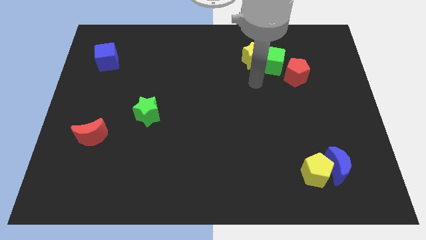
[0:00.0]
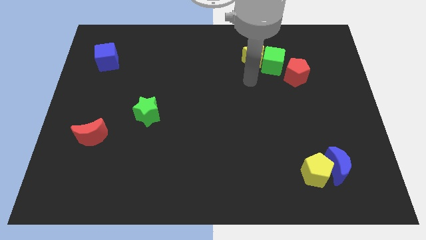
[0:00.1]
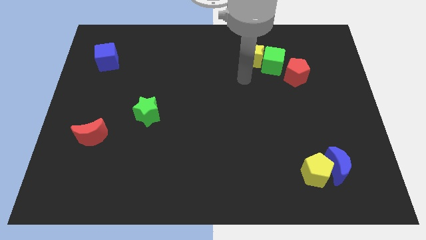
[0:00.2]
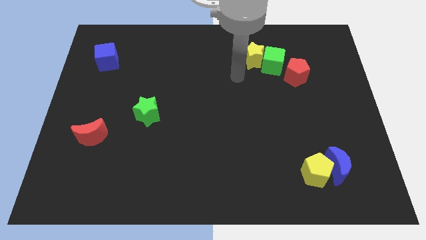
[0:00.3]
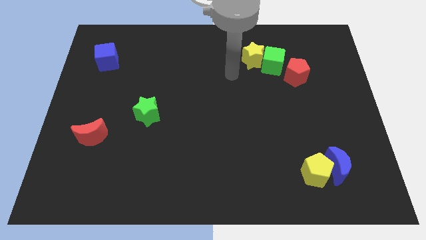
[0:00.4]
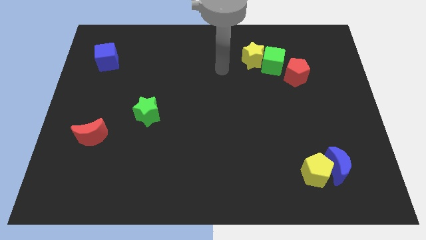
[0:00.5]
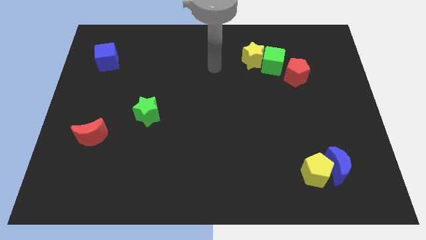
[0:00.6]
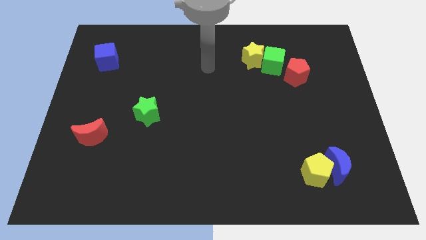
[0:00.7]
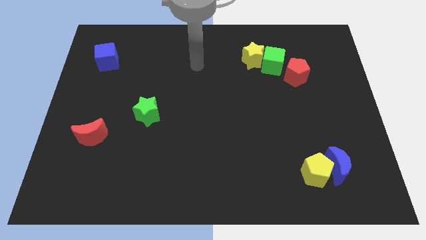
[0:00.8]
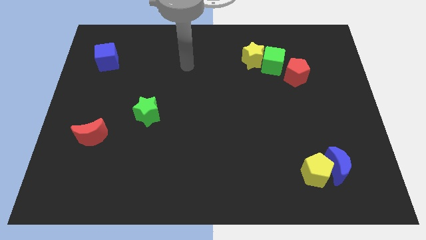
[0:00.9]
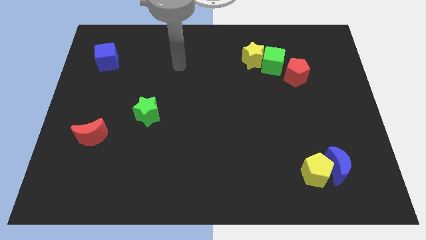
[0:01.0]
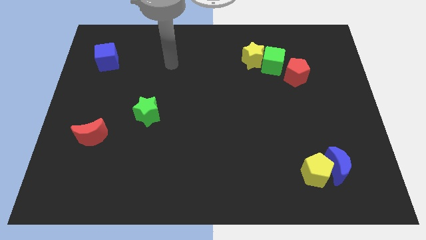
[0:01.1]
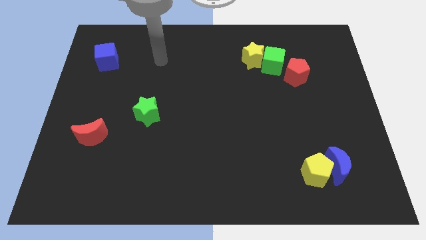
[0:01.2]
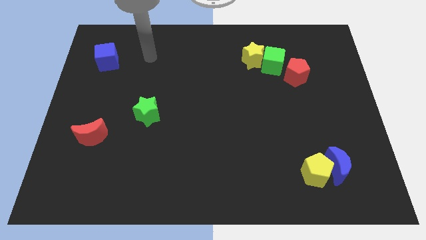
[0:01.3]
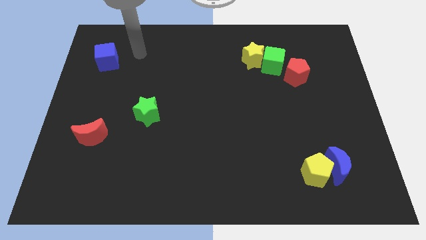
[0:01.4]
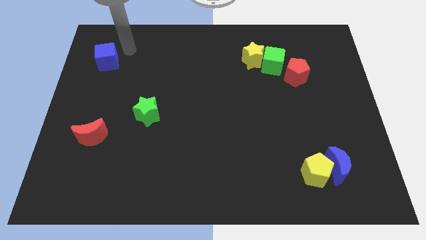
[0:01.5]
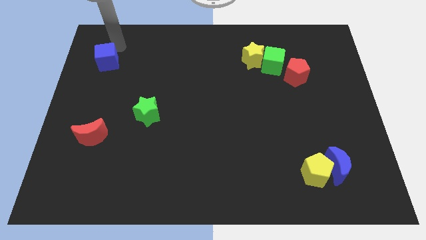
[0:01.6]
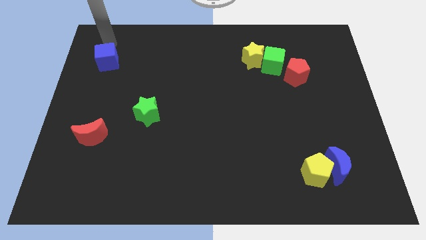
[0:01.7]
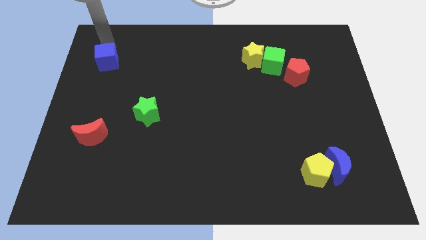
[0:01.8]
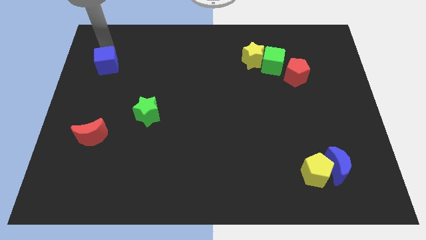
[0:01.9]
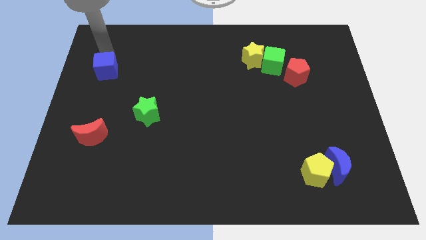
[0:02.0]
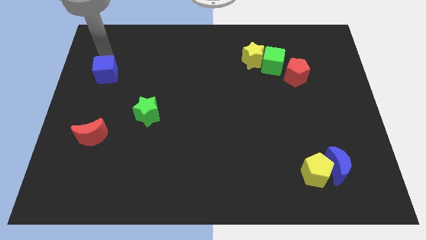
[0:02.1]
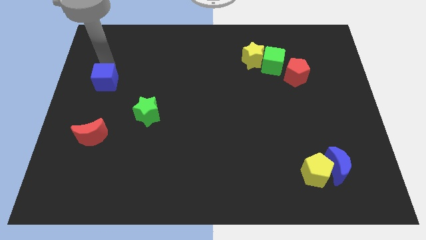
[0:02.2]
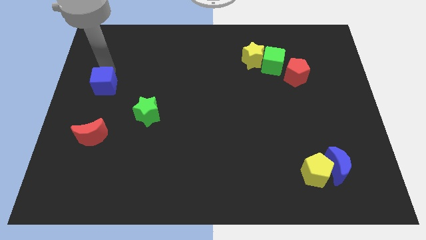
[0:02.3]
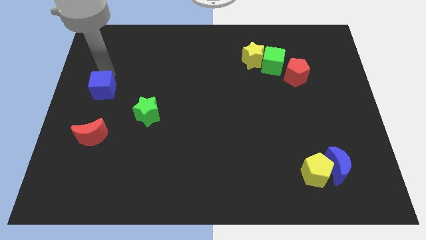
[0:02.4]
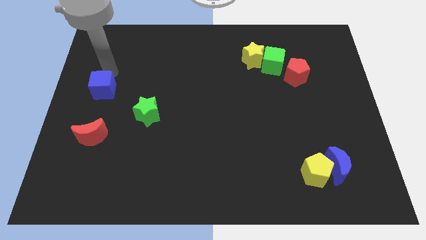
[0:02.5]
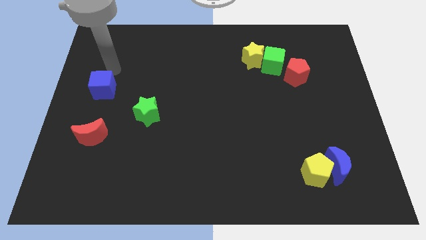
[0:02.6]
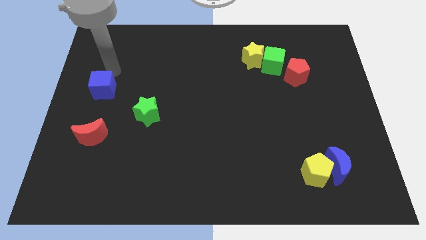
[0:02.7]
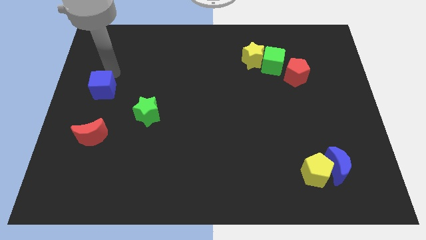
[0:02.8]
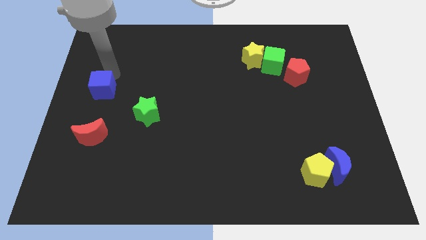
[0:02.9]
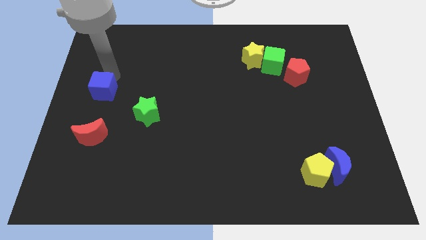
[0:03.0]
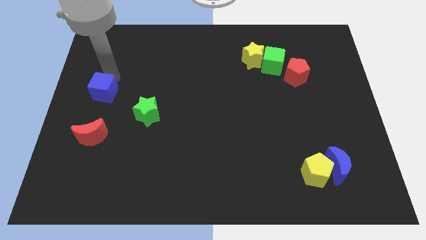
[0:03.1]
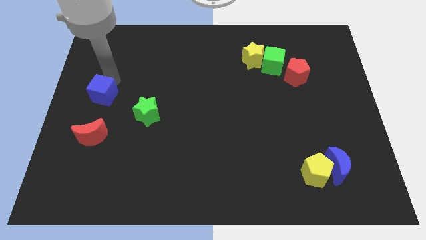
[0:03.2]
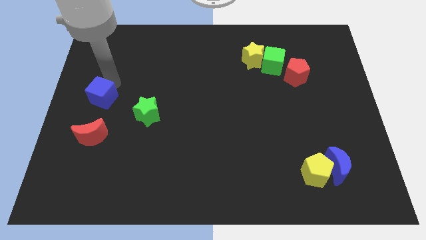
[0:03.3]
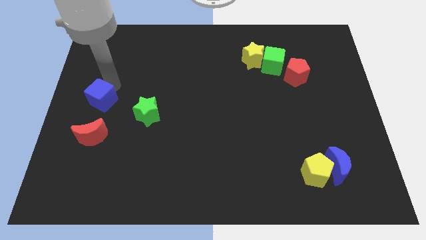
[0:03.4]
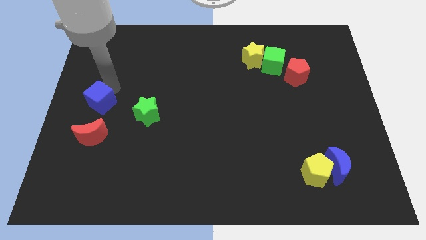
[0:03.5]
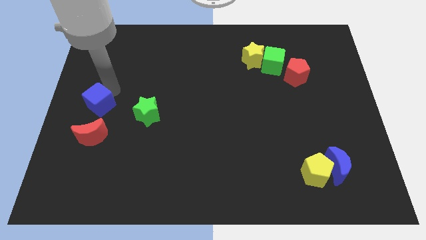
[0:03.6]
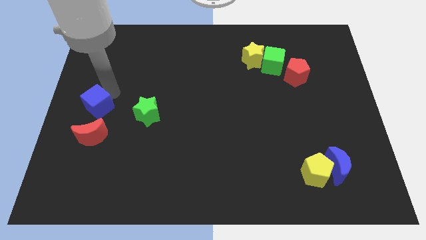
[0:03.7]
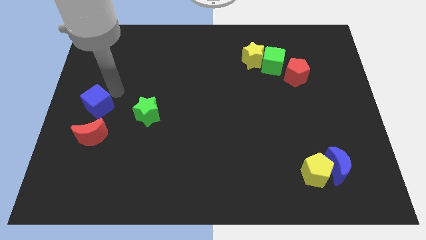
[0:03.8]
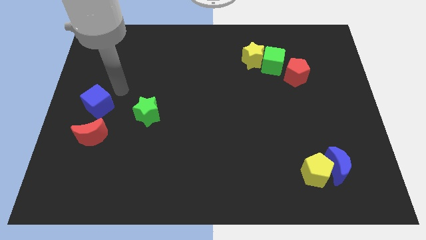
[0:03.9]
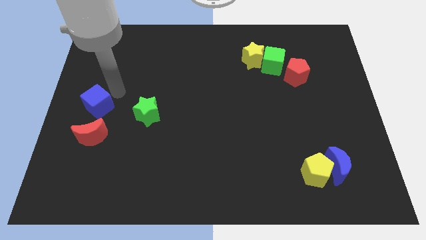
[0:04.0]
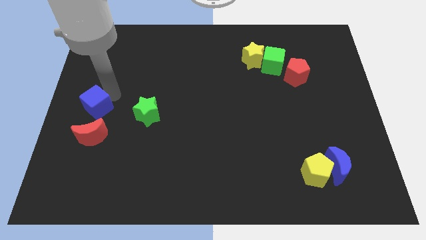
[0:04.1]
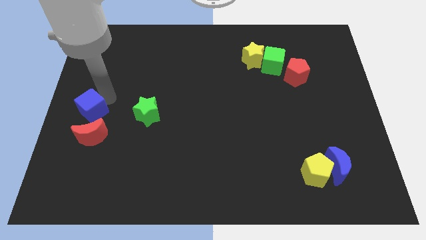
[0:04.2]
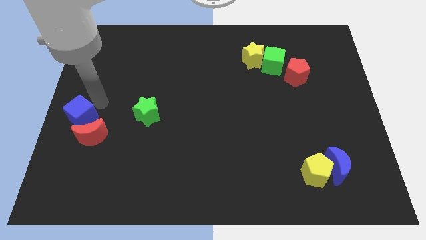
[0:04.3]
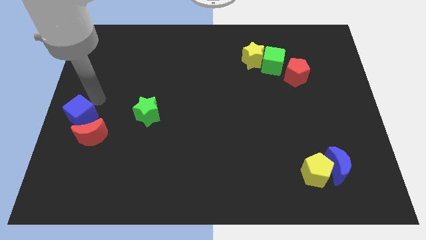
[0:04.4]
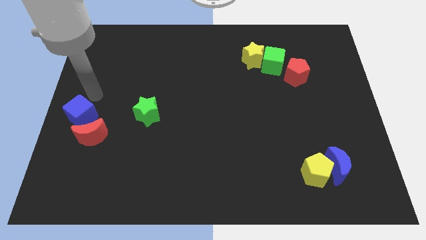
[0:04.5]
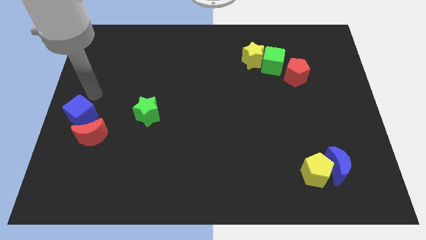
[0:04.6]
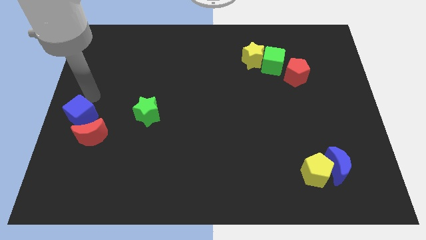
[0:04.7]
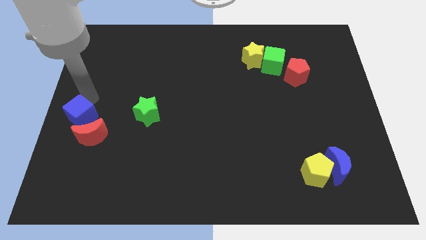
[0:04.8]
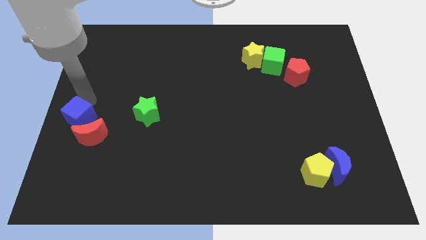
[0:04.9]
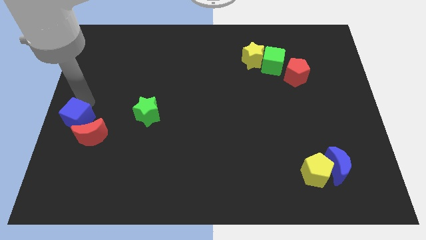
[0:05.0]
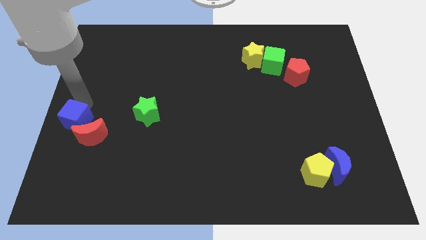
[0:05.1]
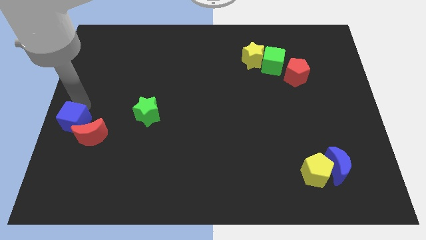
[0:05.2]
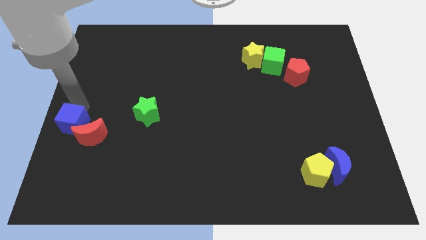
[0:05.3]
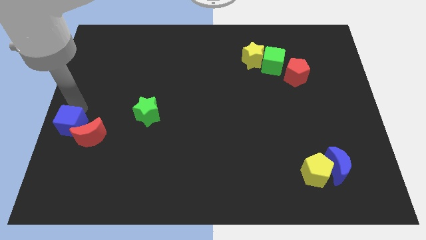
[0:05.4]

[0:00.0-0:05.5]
slide the blue cube down

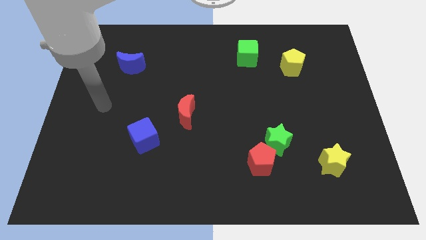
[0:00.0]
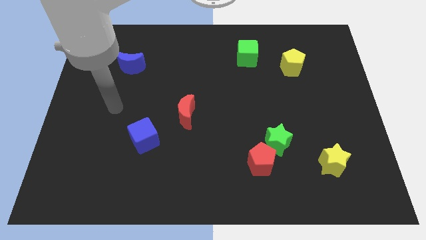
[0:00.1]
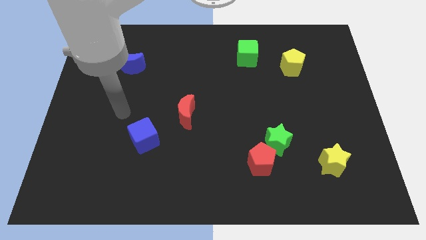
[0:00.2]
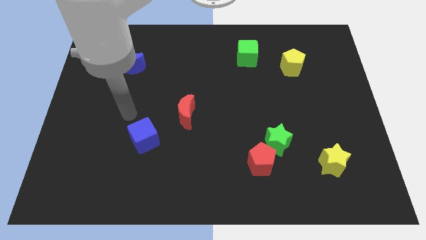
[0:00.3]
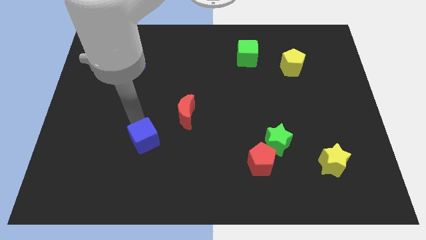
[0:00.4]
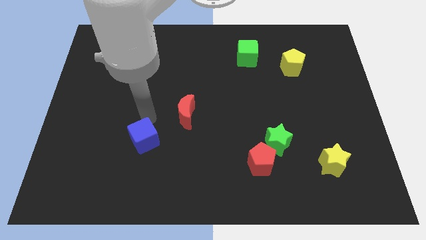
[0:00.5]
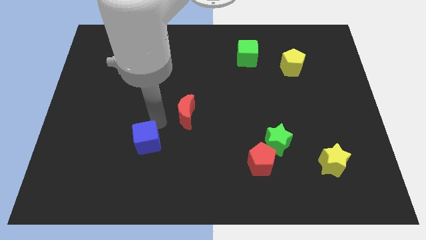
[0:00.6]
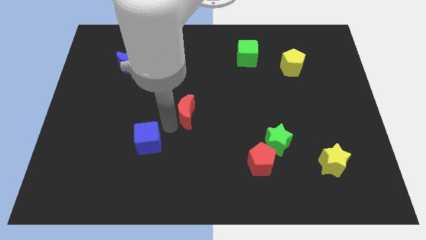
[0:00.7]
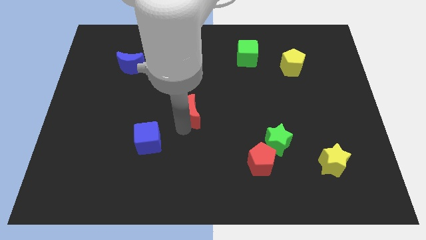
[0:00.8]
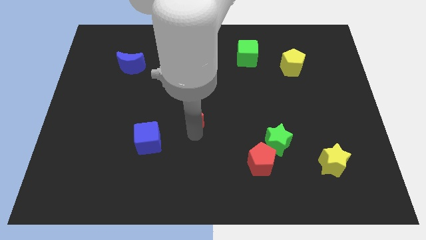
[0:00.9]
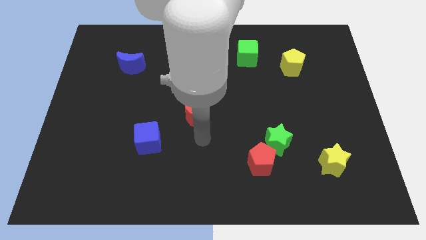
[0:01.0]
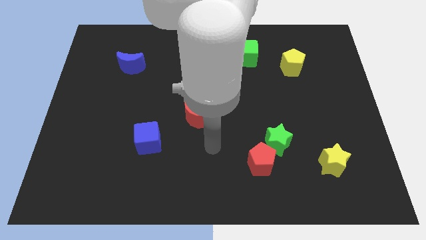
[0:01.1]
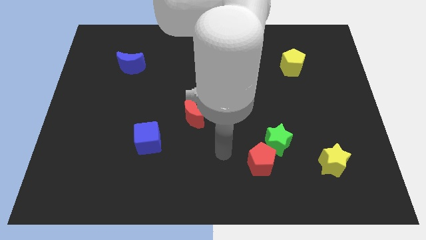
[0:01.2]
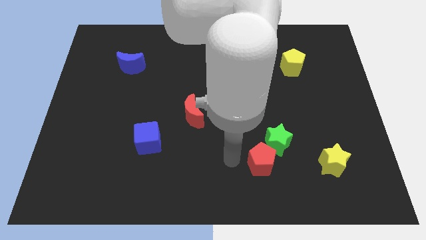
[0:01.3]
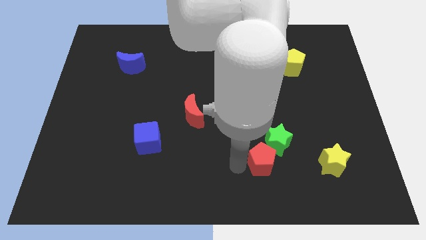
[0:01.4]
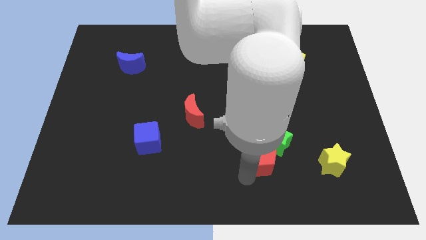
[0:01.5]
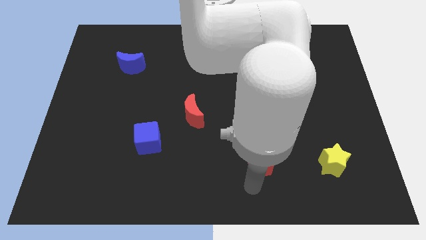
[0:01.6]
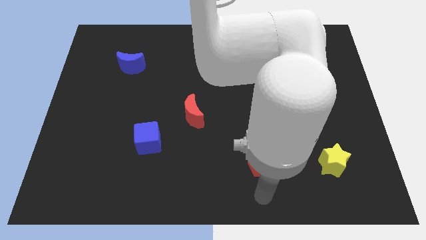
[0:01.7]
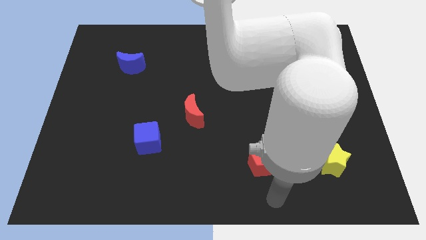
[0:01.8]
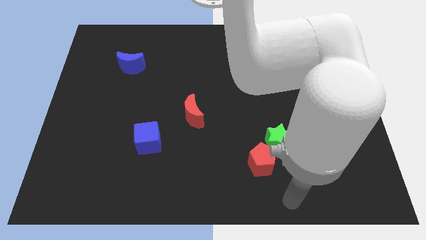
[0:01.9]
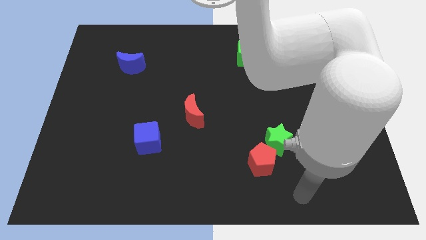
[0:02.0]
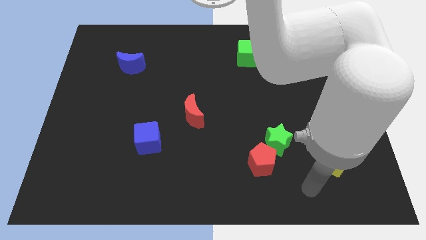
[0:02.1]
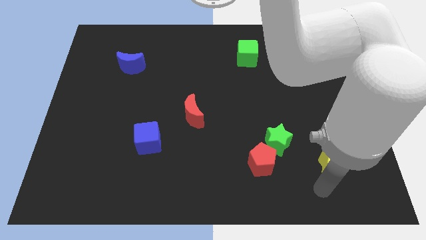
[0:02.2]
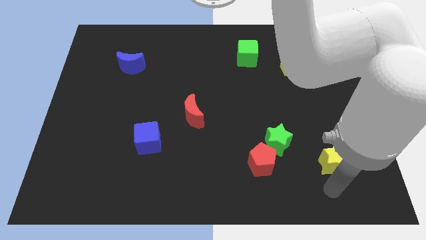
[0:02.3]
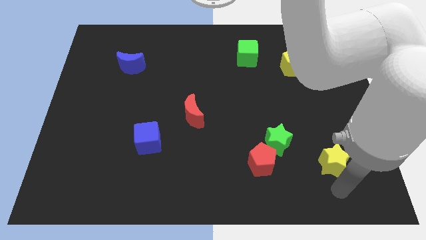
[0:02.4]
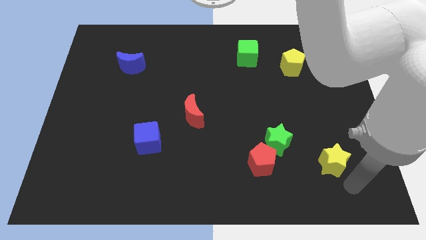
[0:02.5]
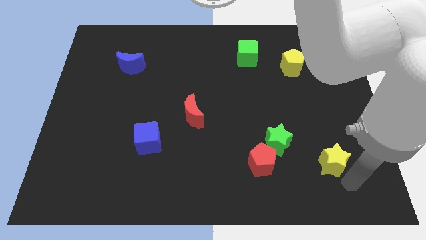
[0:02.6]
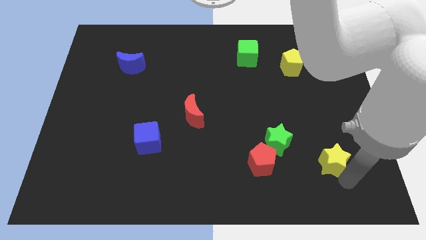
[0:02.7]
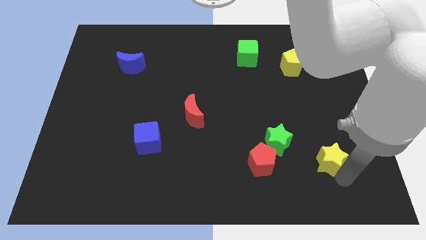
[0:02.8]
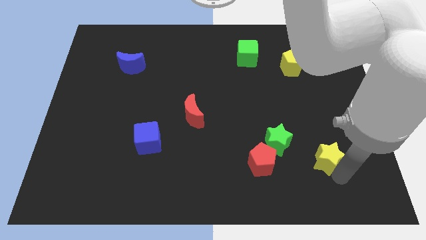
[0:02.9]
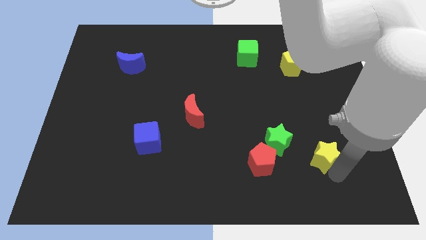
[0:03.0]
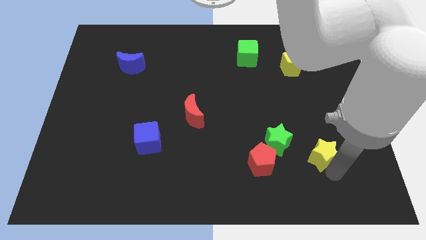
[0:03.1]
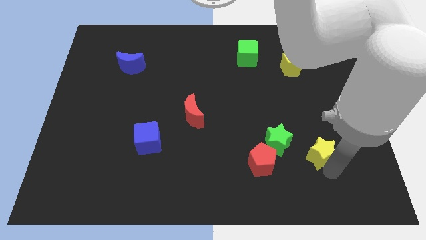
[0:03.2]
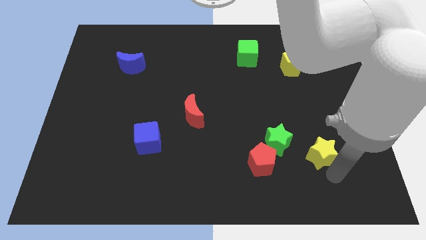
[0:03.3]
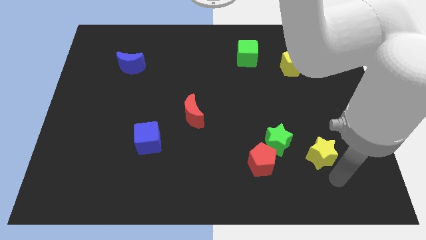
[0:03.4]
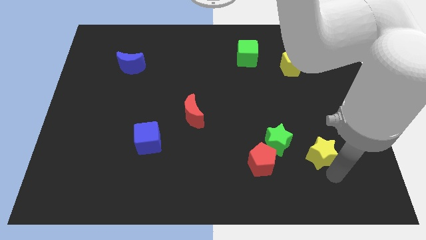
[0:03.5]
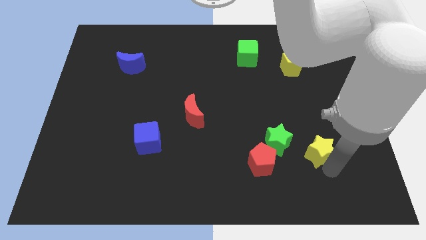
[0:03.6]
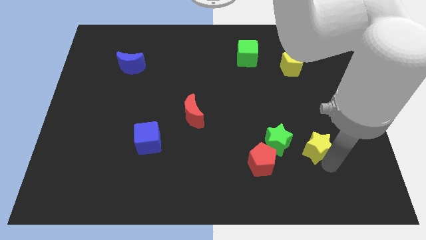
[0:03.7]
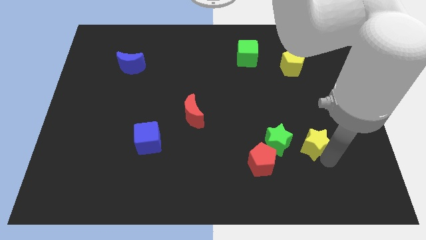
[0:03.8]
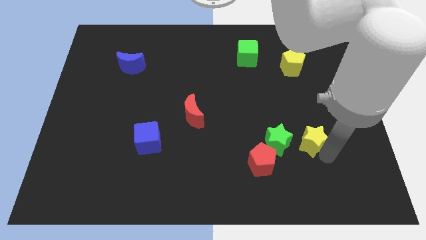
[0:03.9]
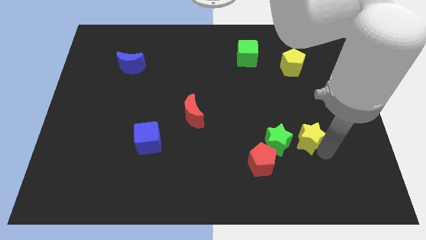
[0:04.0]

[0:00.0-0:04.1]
push the yellow star upwards and then to the left a little bit
